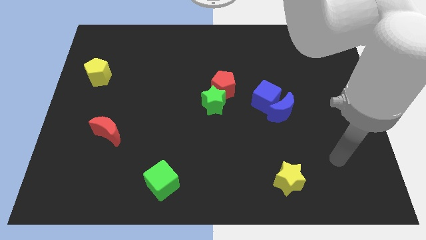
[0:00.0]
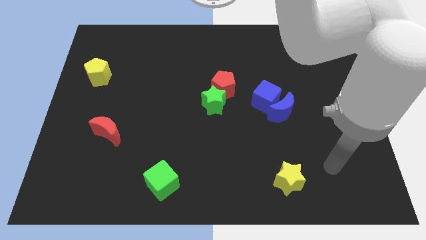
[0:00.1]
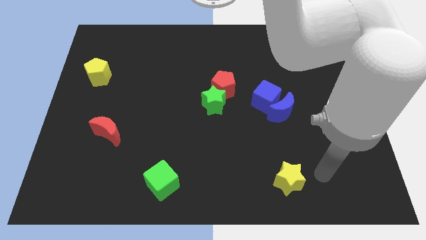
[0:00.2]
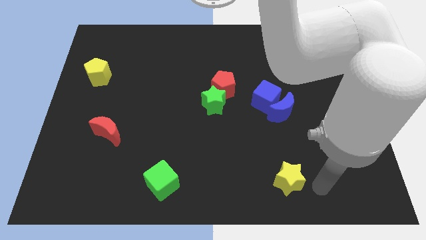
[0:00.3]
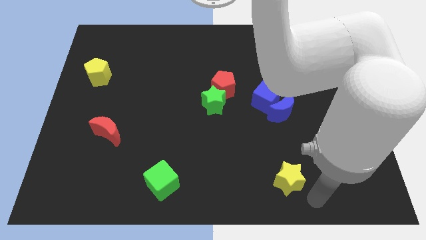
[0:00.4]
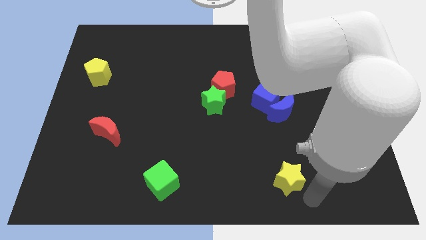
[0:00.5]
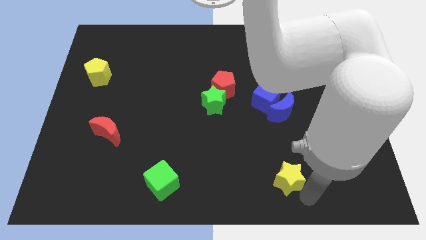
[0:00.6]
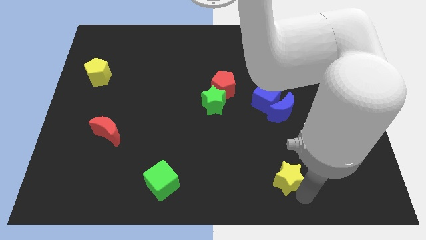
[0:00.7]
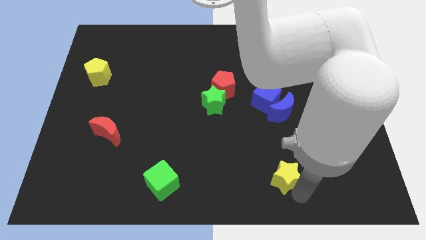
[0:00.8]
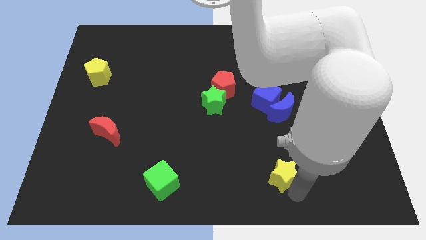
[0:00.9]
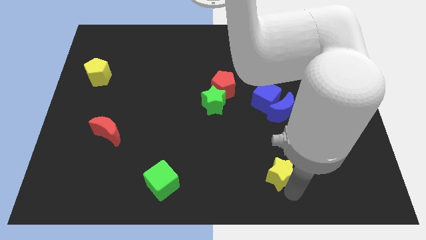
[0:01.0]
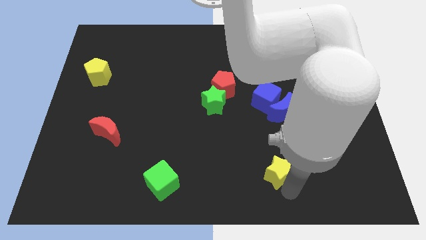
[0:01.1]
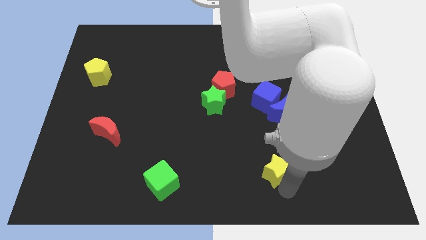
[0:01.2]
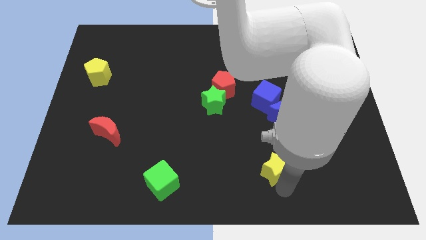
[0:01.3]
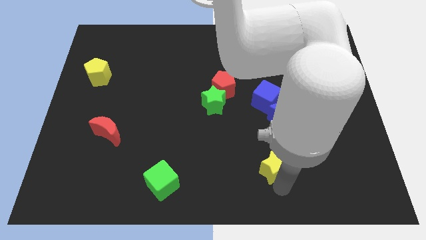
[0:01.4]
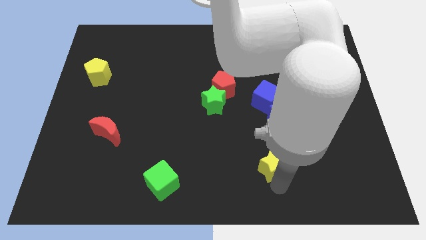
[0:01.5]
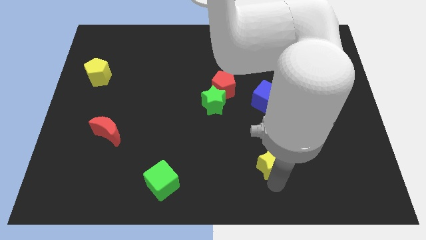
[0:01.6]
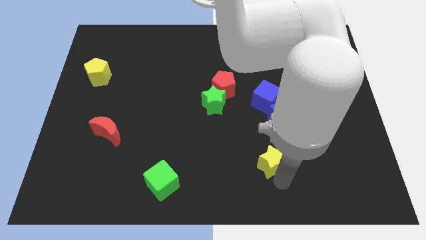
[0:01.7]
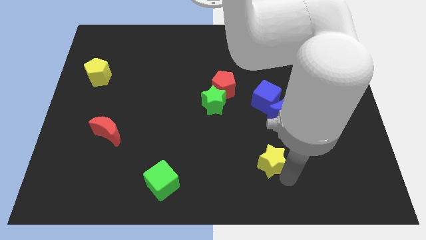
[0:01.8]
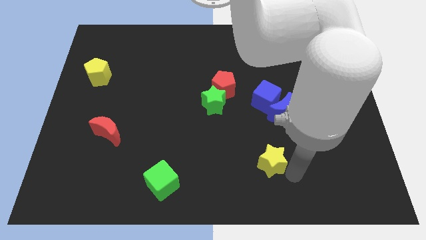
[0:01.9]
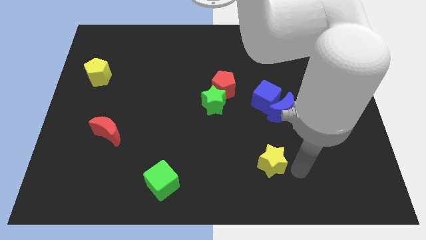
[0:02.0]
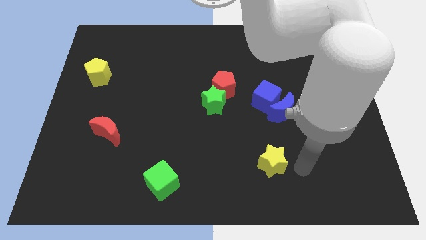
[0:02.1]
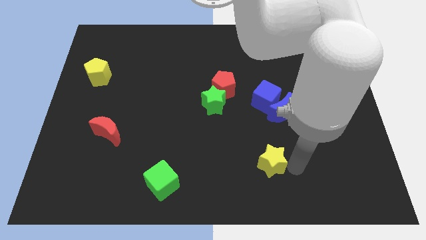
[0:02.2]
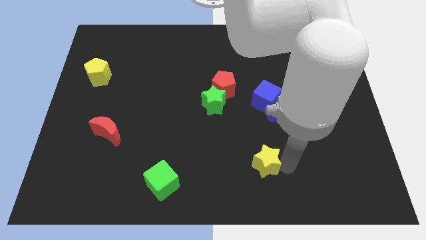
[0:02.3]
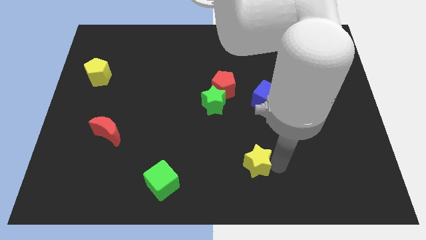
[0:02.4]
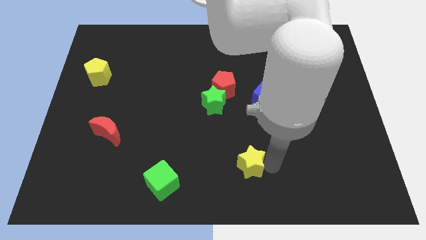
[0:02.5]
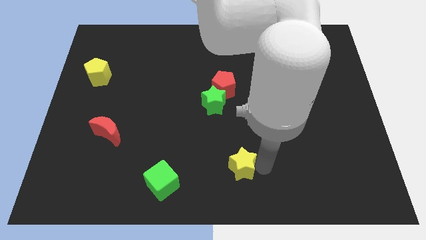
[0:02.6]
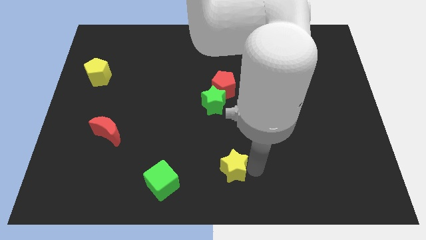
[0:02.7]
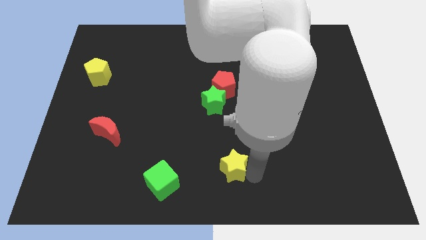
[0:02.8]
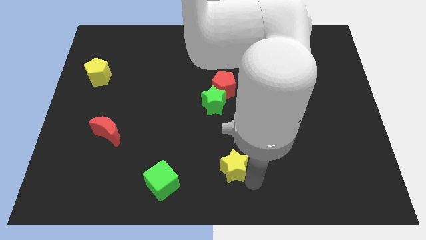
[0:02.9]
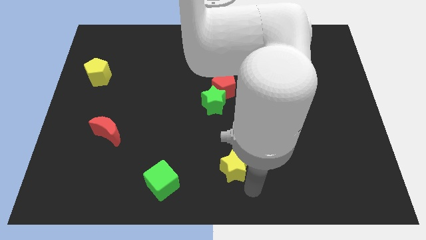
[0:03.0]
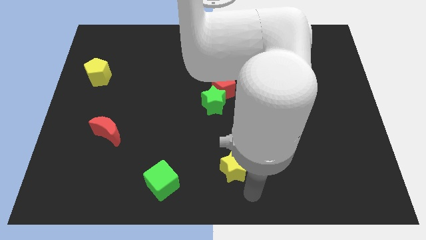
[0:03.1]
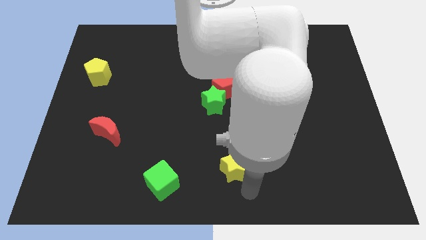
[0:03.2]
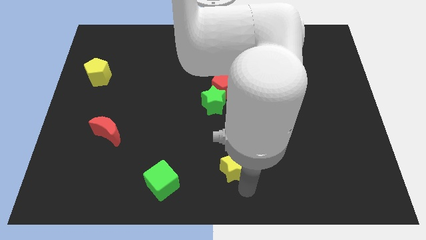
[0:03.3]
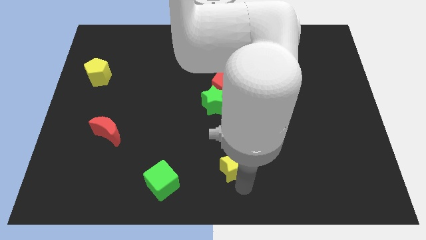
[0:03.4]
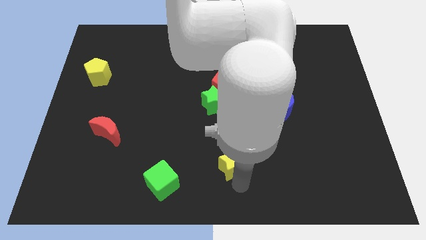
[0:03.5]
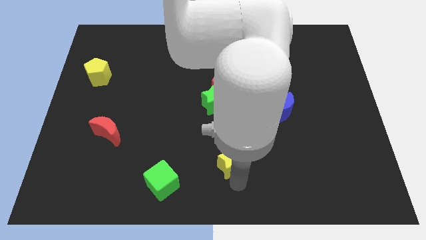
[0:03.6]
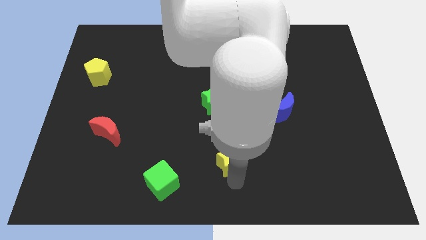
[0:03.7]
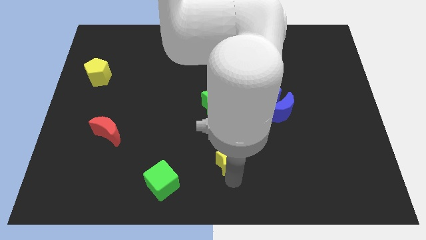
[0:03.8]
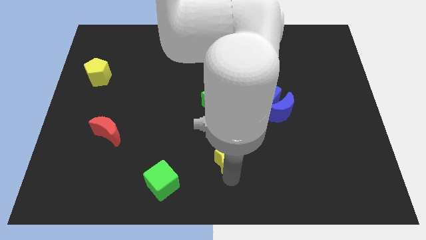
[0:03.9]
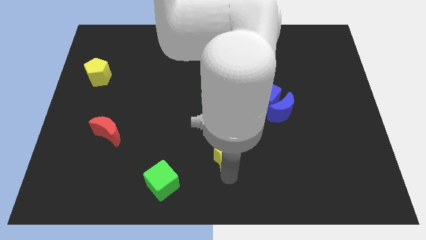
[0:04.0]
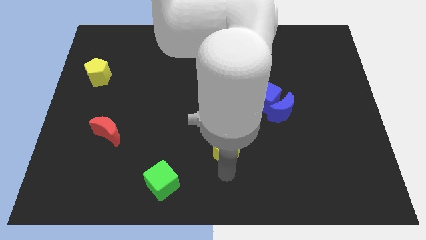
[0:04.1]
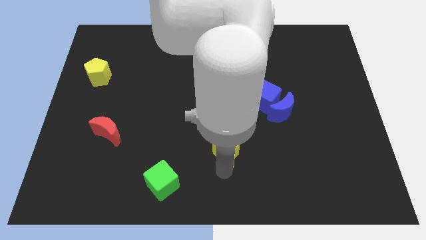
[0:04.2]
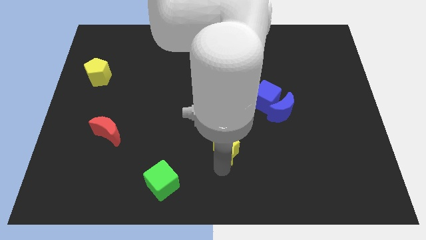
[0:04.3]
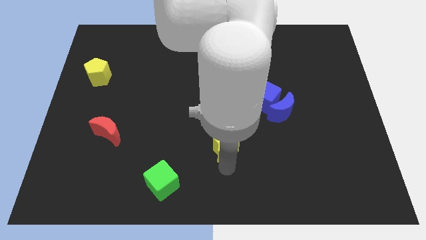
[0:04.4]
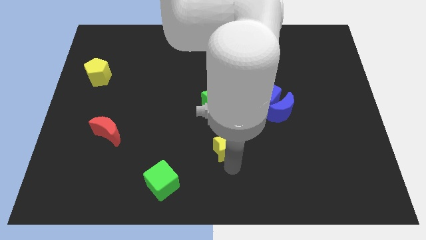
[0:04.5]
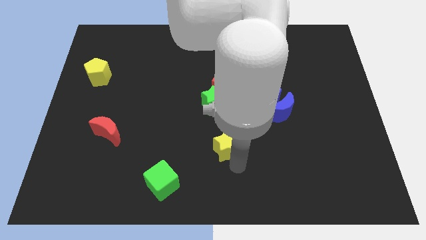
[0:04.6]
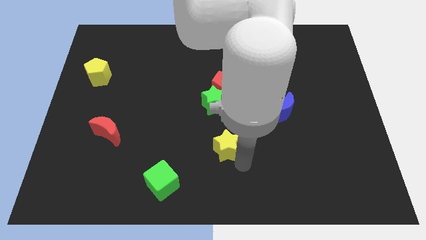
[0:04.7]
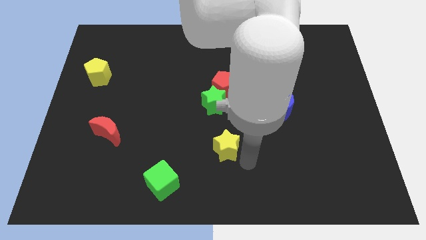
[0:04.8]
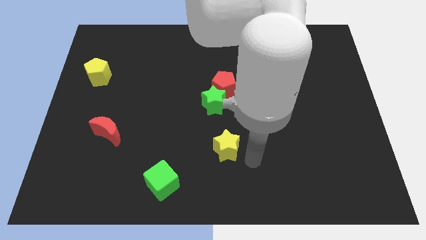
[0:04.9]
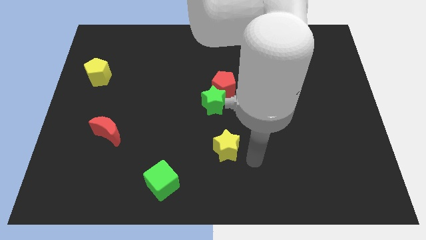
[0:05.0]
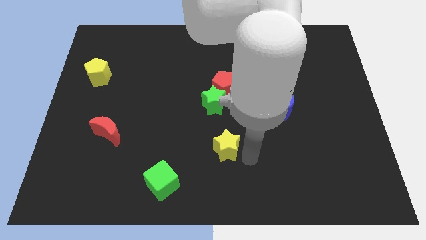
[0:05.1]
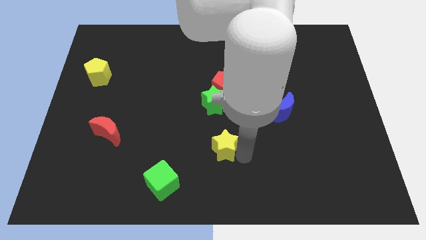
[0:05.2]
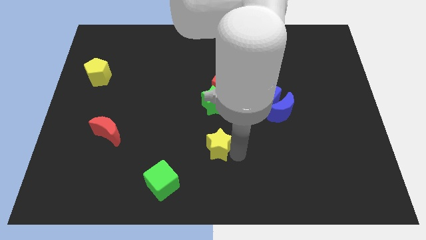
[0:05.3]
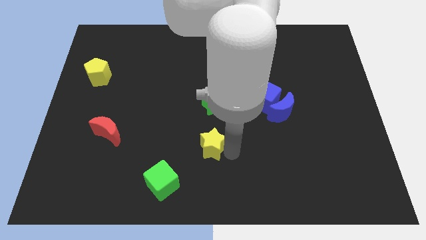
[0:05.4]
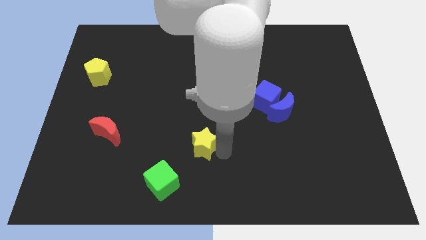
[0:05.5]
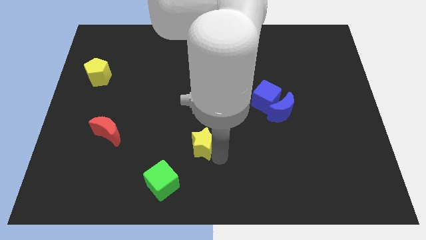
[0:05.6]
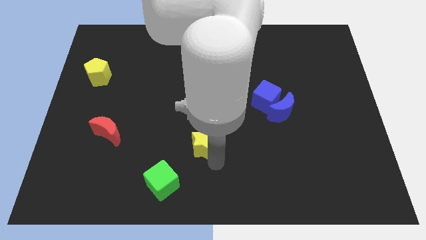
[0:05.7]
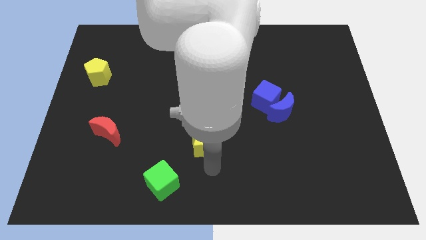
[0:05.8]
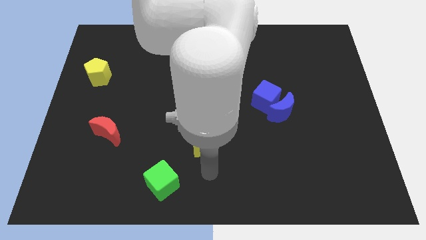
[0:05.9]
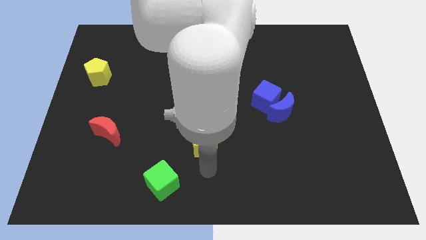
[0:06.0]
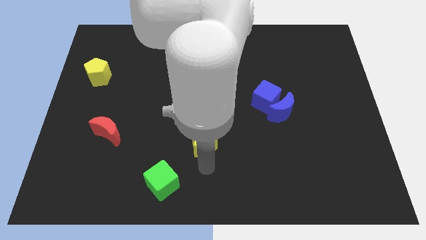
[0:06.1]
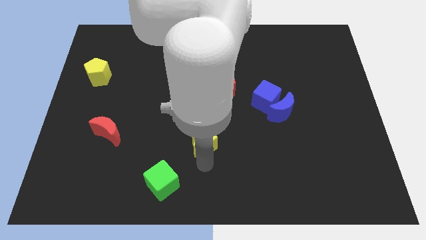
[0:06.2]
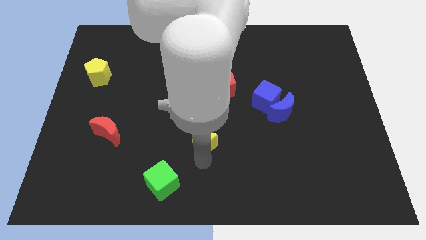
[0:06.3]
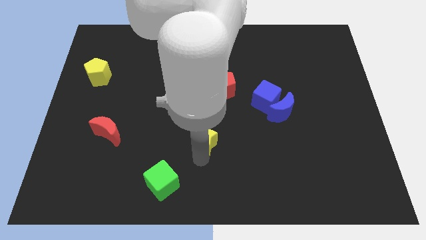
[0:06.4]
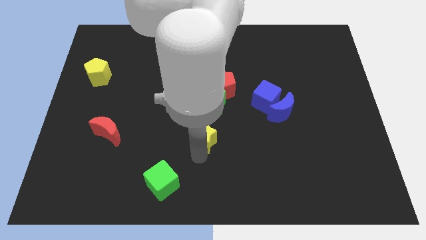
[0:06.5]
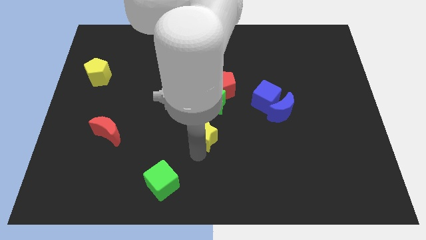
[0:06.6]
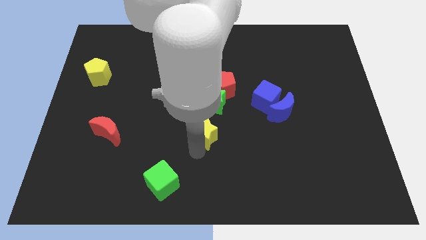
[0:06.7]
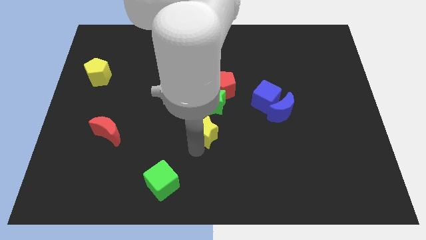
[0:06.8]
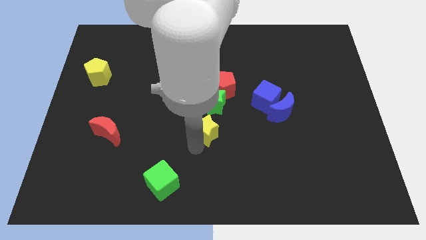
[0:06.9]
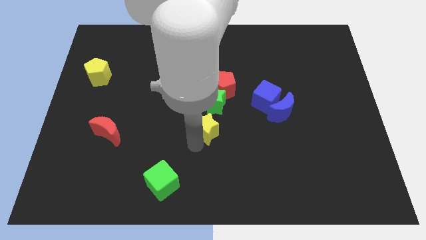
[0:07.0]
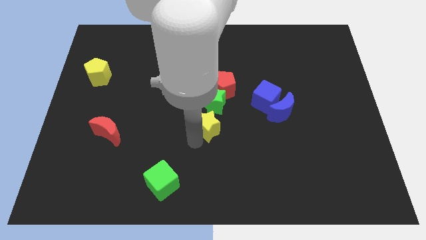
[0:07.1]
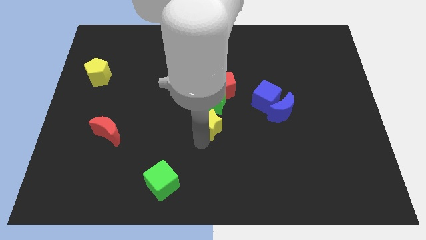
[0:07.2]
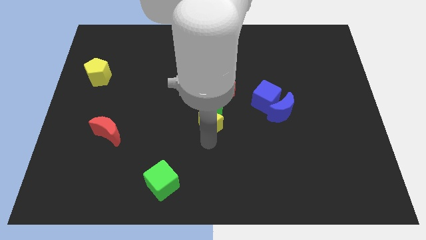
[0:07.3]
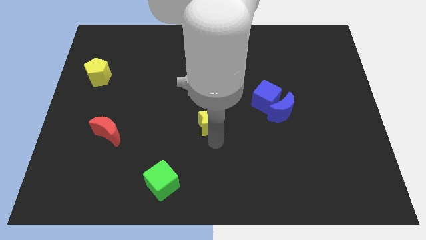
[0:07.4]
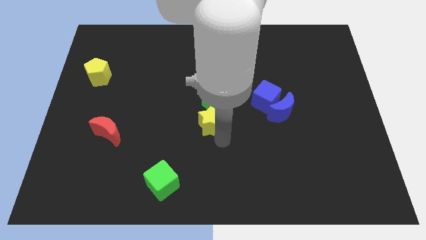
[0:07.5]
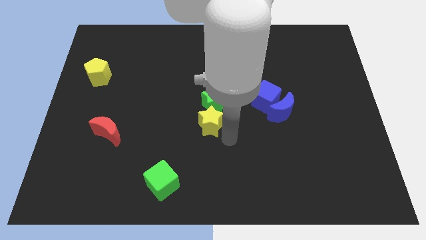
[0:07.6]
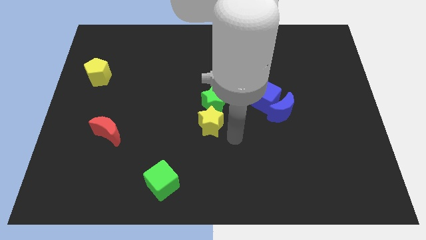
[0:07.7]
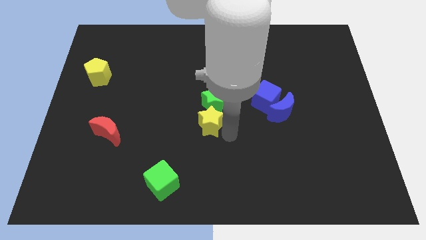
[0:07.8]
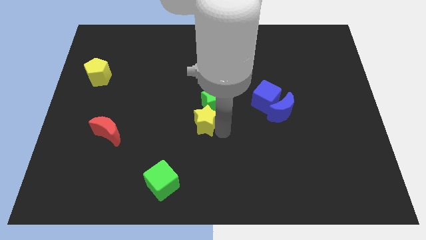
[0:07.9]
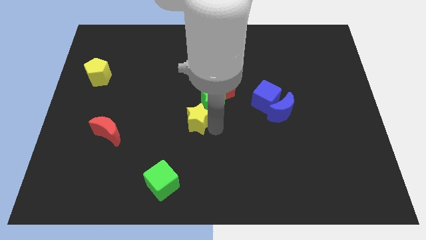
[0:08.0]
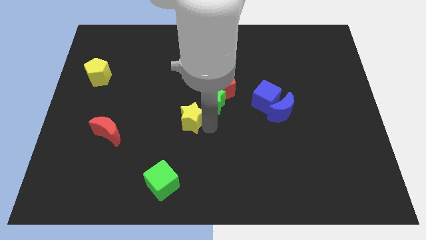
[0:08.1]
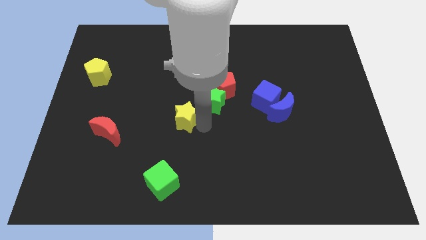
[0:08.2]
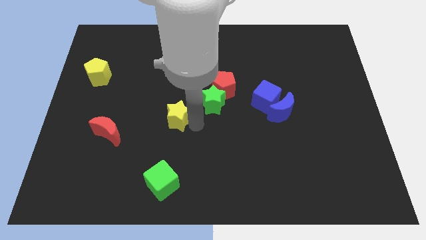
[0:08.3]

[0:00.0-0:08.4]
slide the yellow star to the left side of the green star
